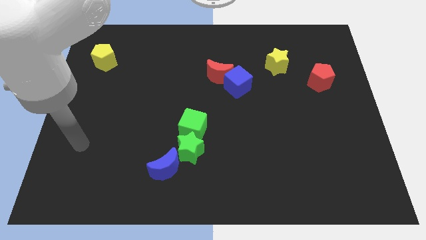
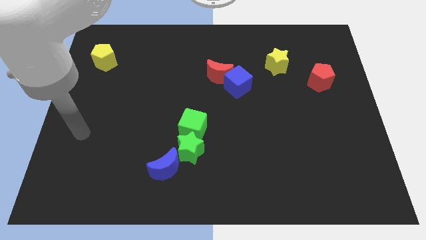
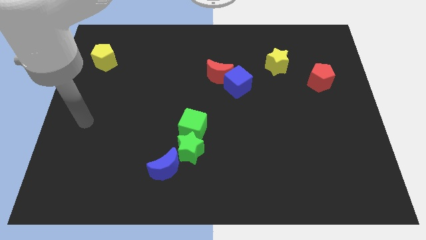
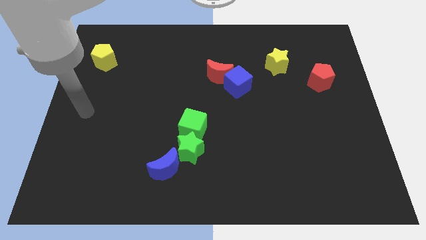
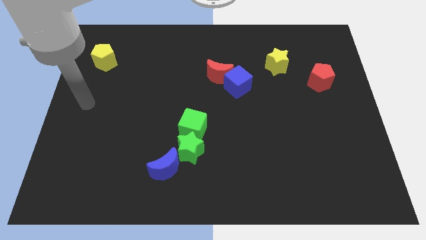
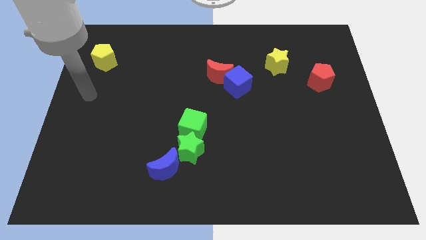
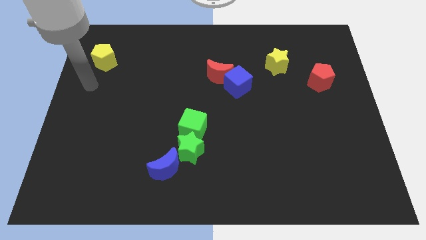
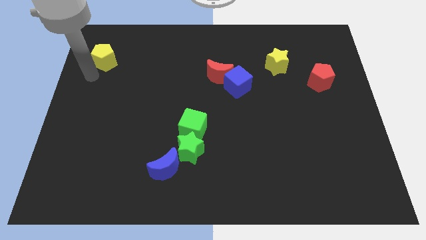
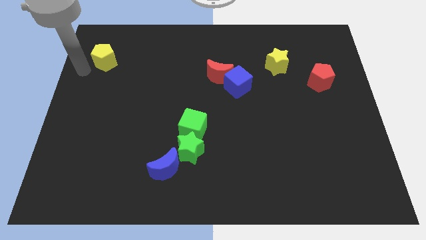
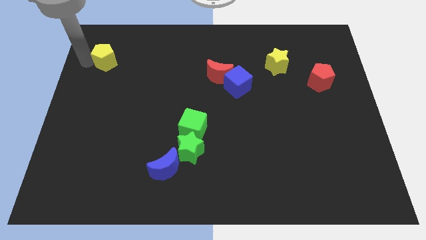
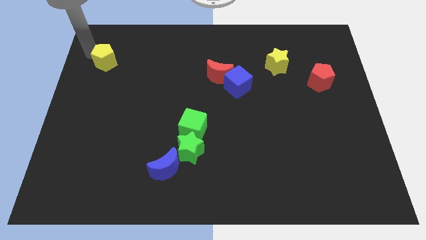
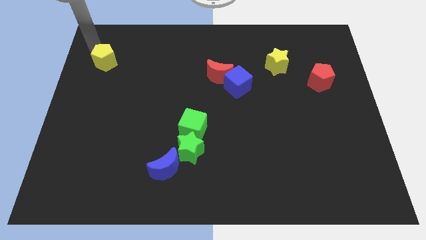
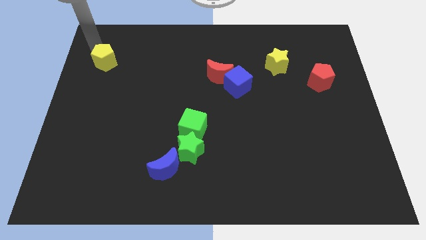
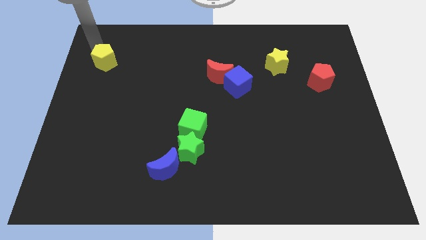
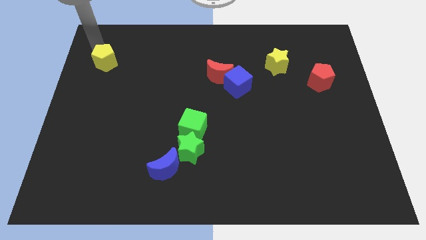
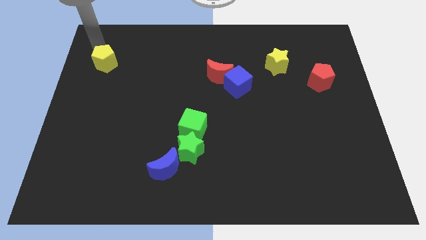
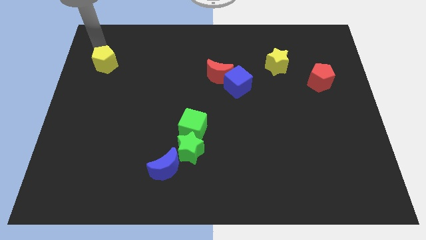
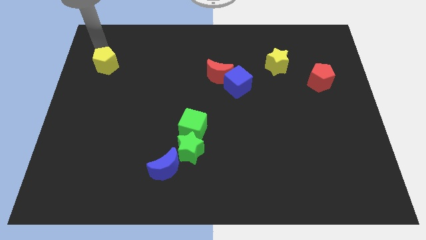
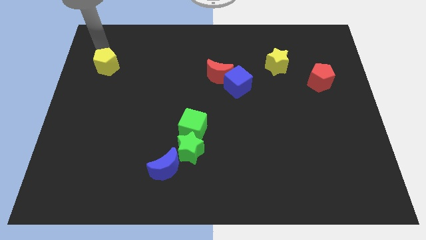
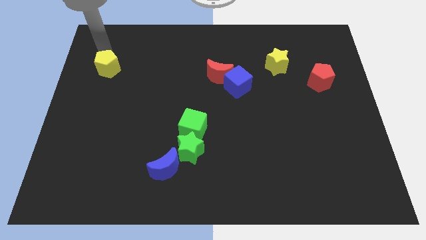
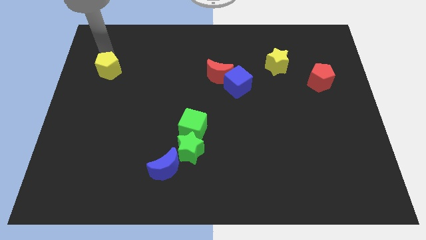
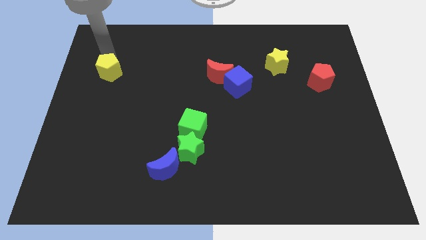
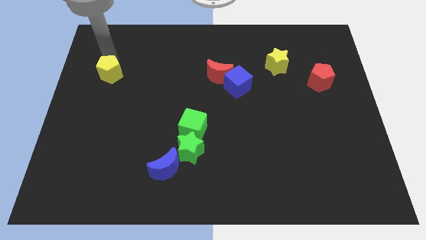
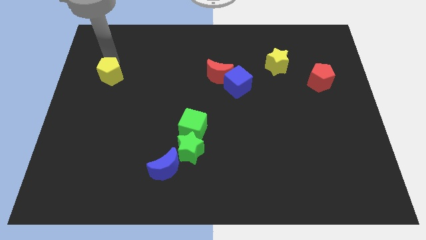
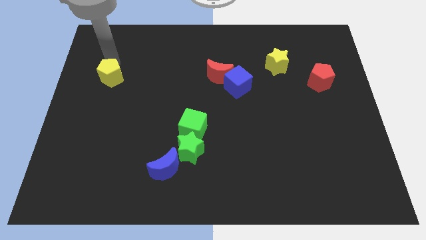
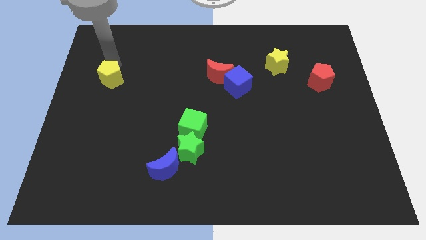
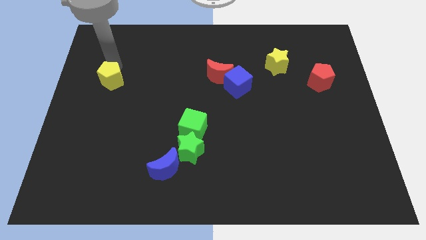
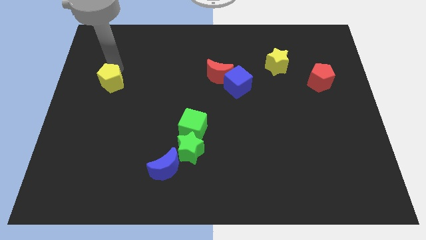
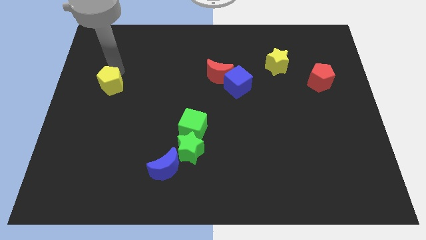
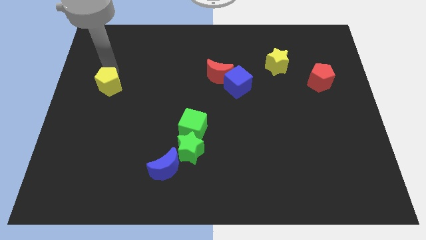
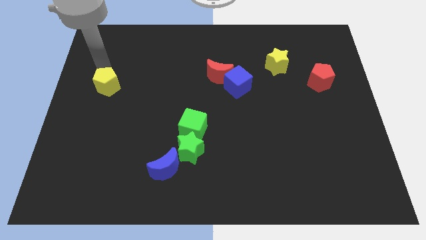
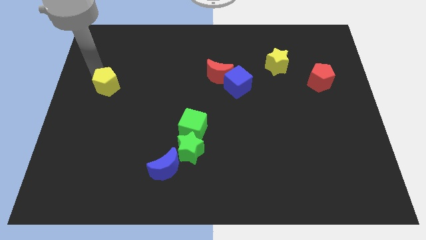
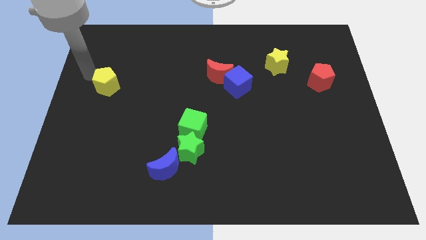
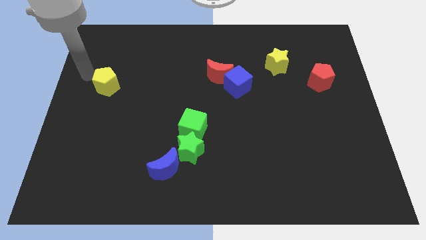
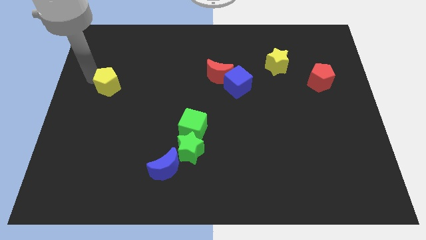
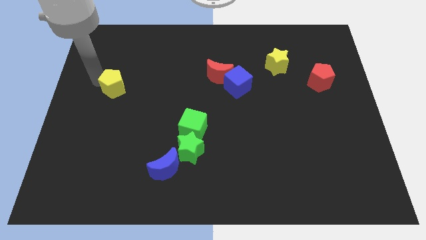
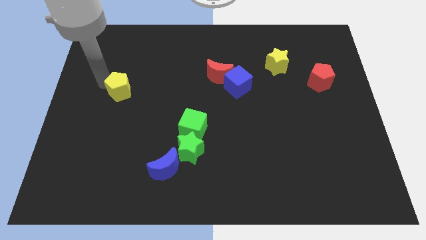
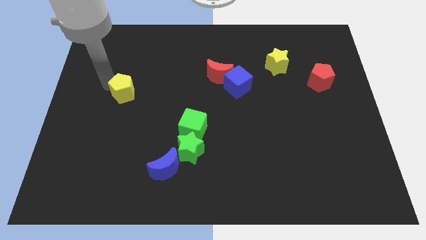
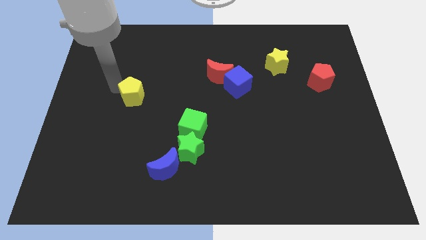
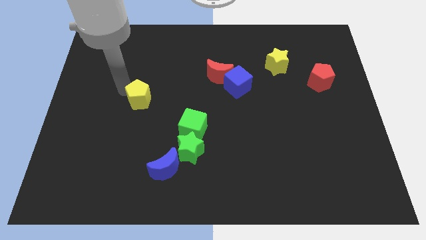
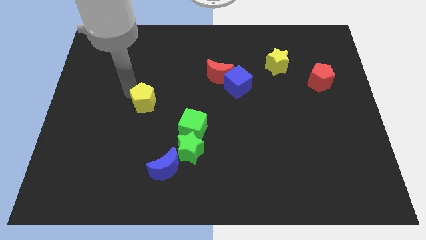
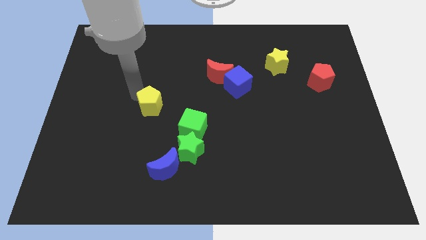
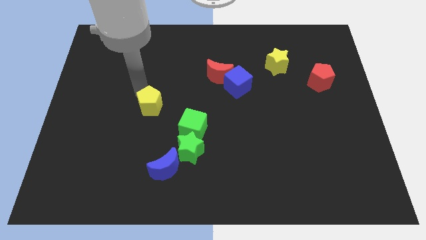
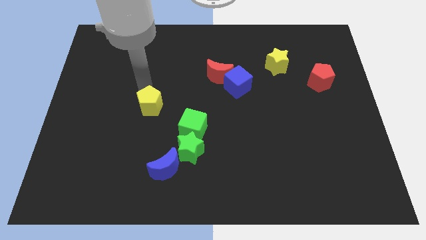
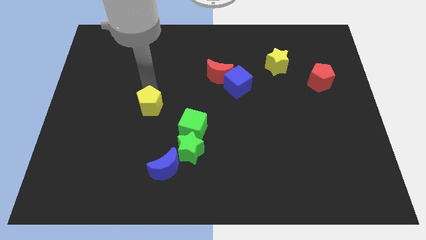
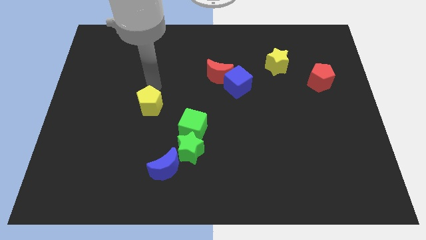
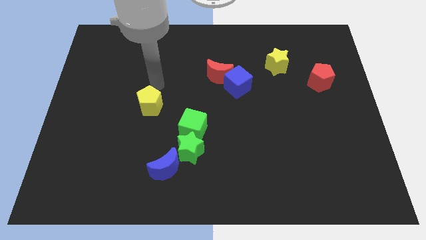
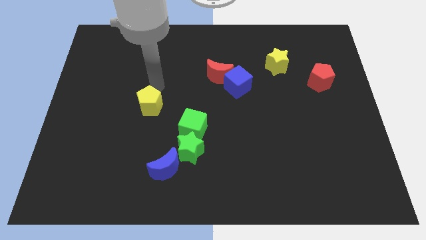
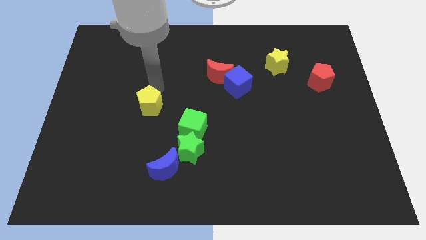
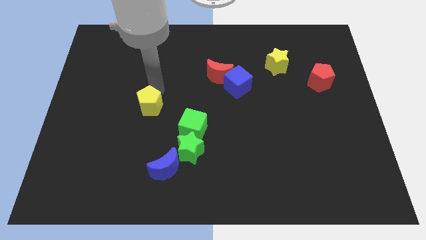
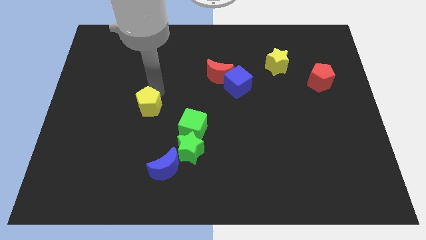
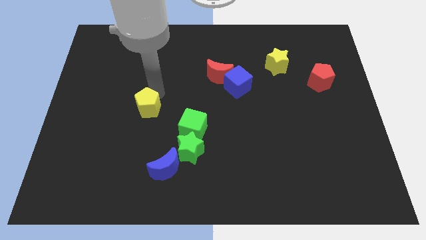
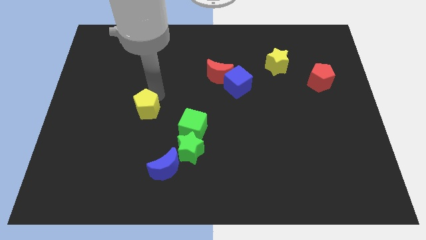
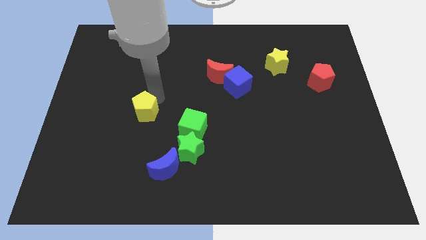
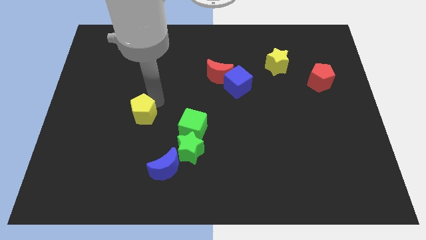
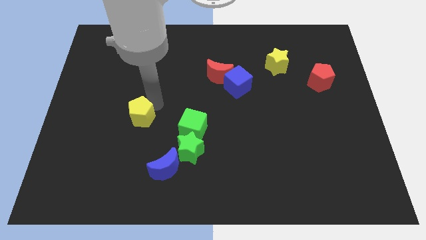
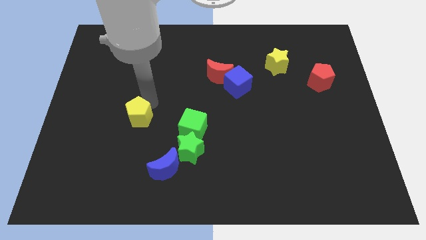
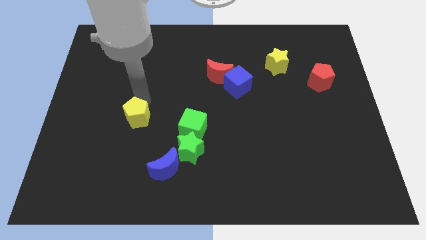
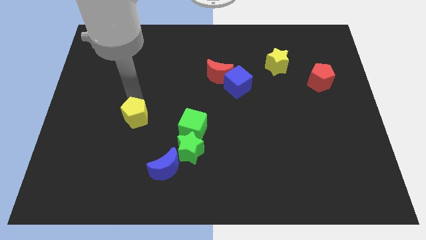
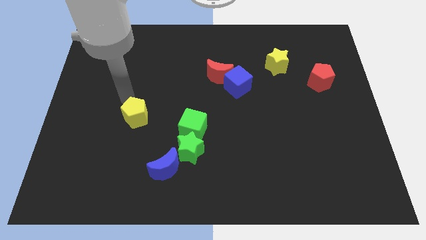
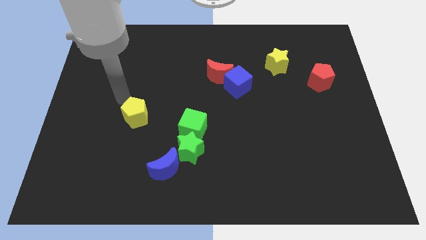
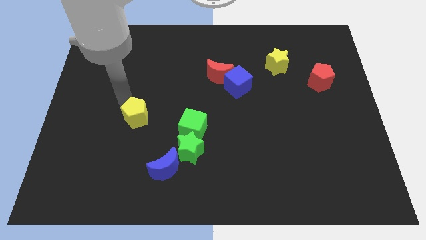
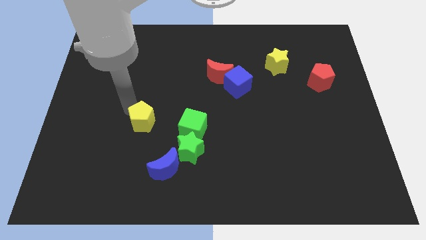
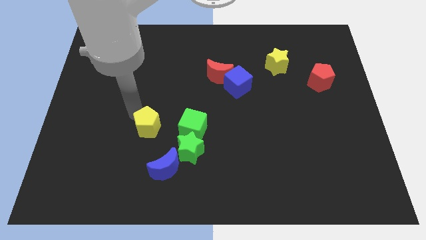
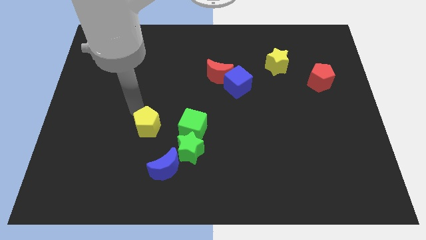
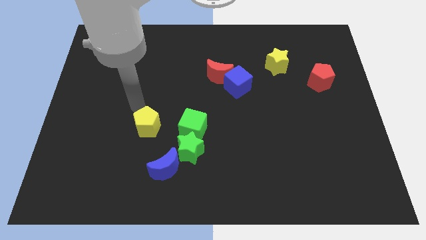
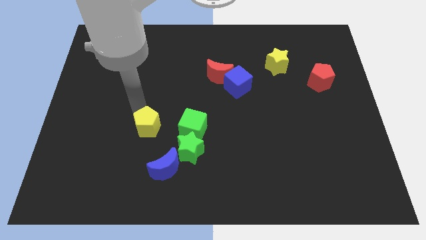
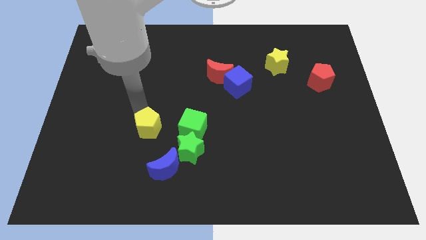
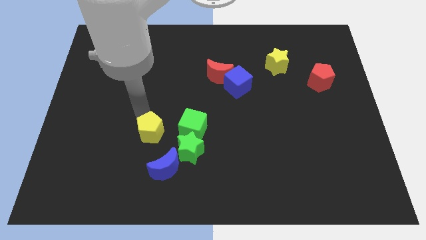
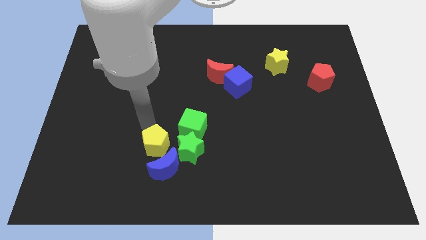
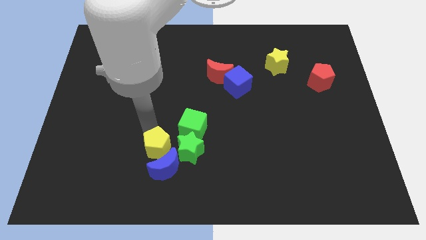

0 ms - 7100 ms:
push the yellow pentagon close to the blue moon

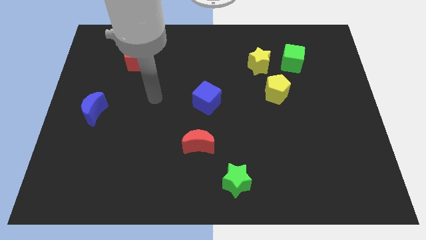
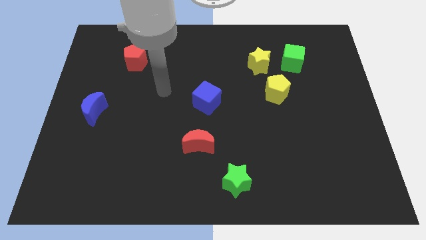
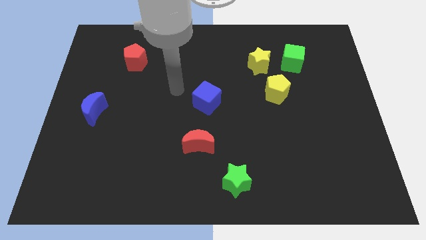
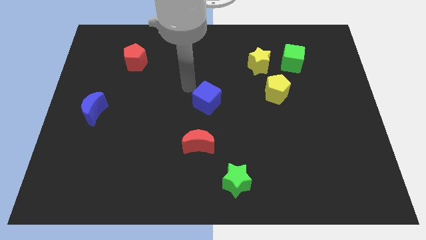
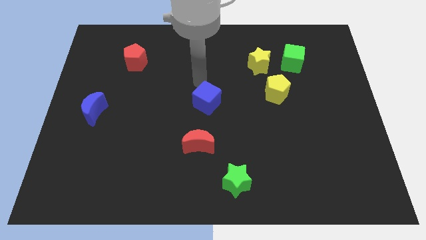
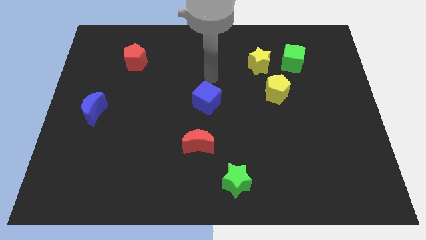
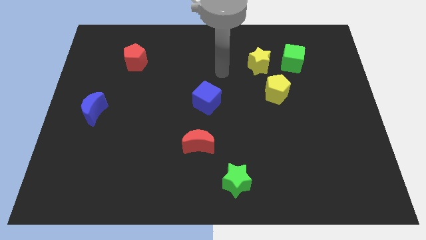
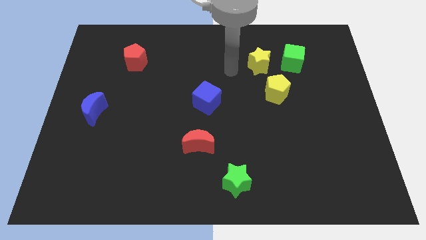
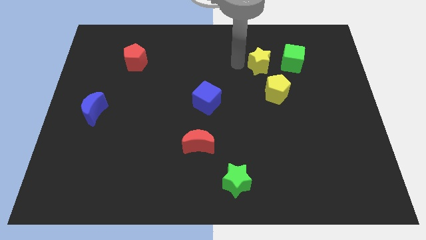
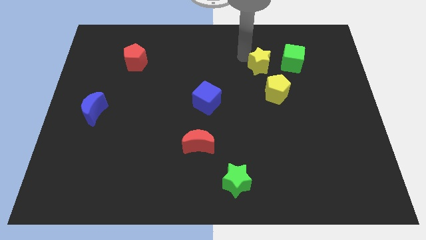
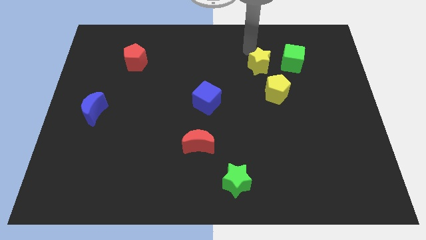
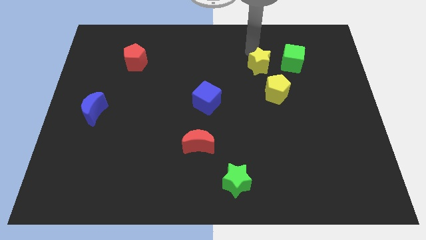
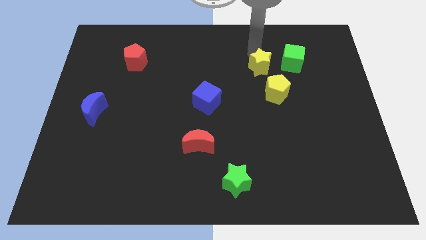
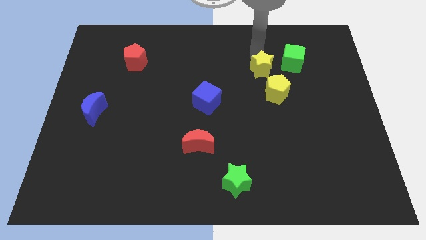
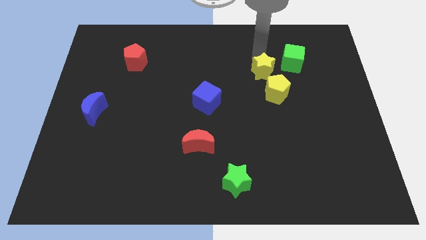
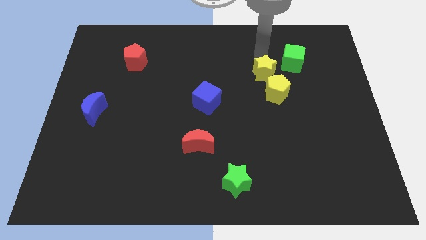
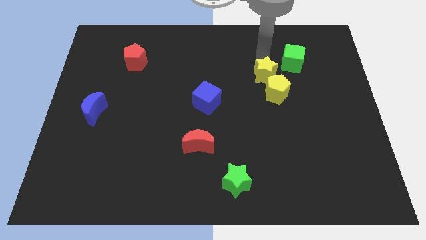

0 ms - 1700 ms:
put the yellow star towards the yellow pentagon
